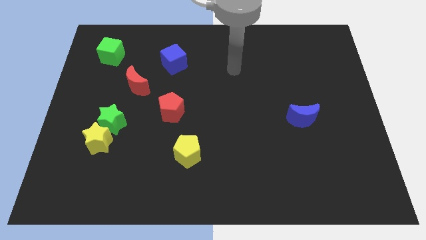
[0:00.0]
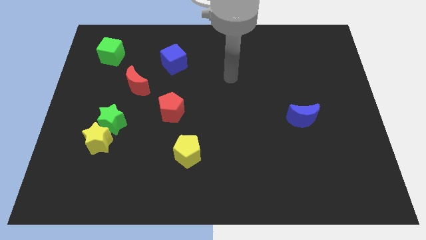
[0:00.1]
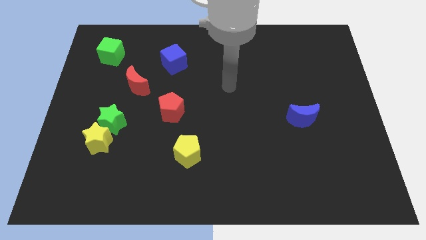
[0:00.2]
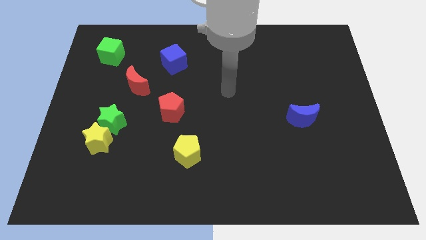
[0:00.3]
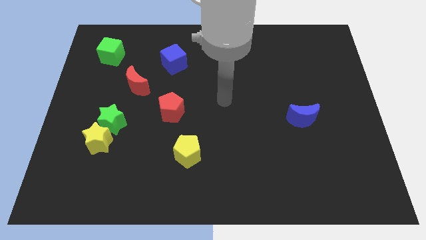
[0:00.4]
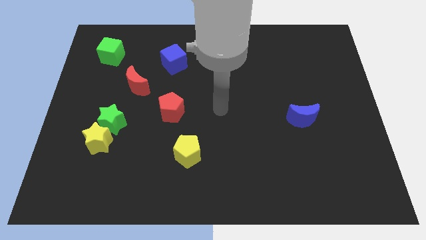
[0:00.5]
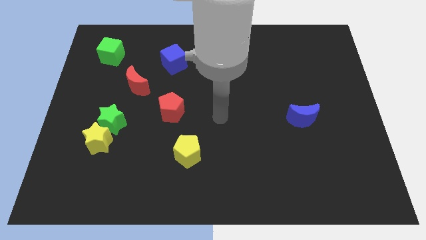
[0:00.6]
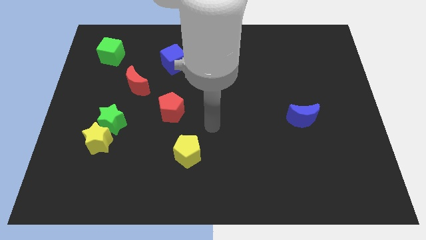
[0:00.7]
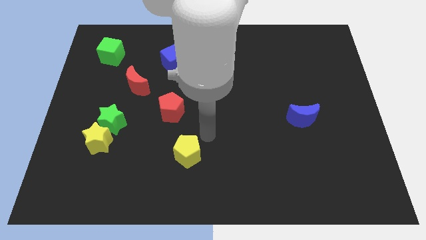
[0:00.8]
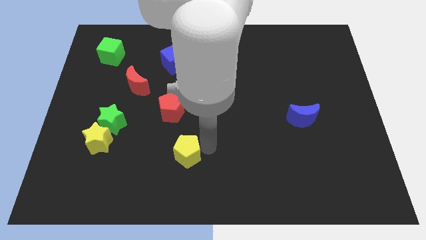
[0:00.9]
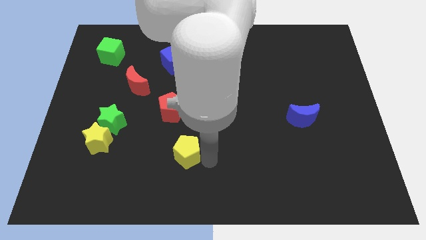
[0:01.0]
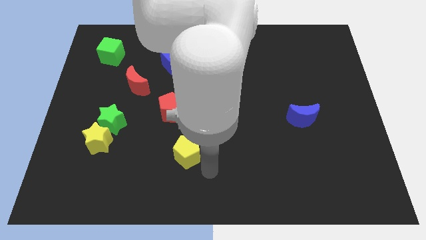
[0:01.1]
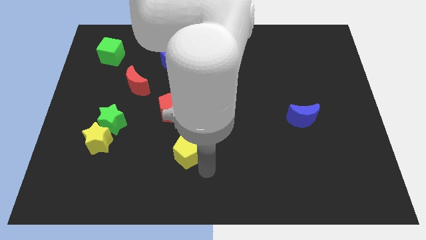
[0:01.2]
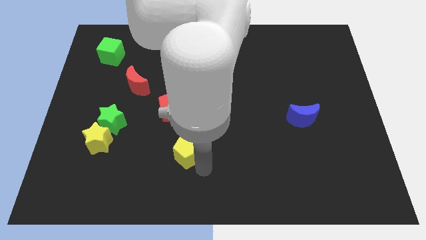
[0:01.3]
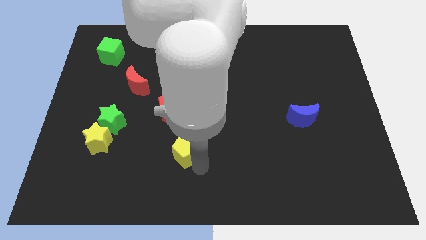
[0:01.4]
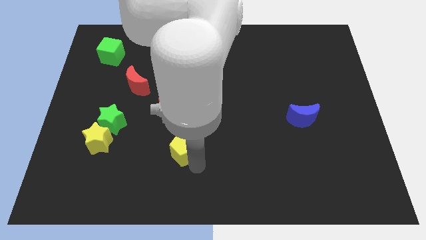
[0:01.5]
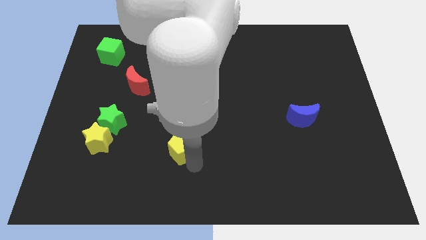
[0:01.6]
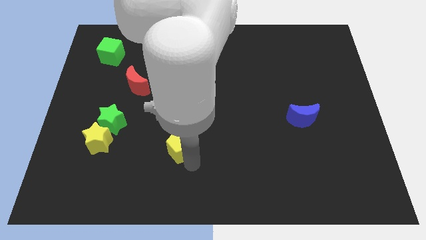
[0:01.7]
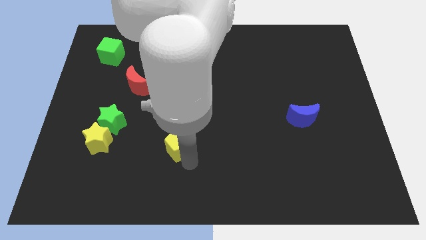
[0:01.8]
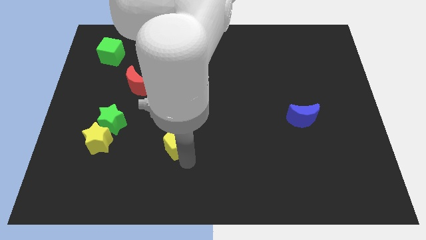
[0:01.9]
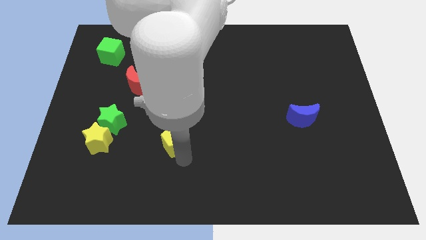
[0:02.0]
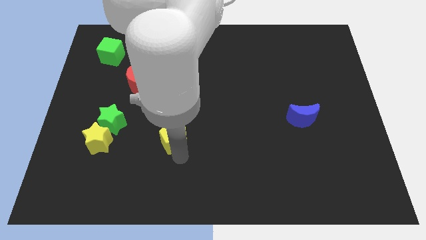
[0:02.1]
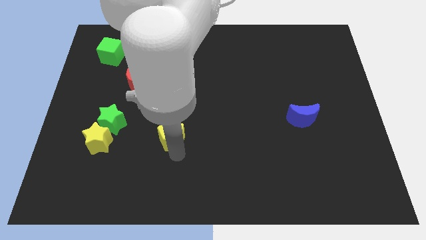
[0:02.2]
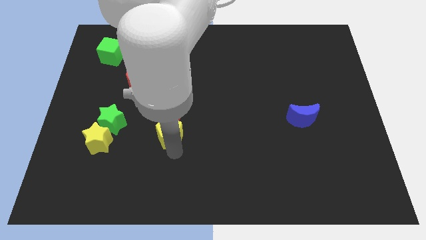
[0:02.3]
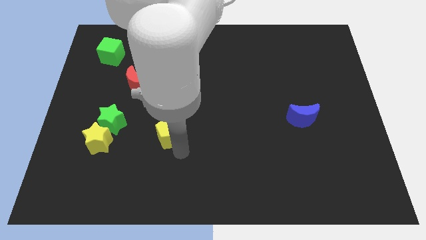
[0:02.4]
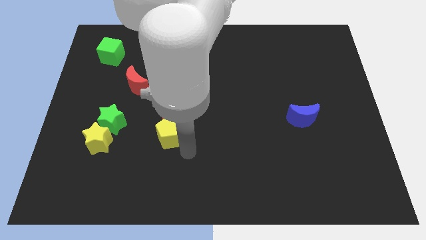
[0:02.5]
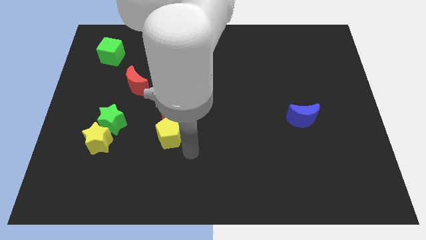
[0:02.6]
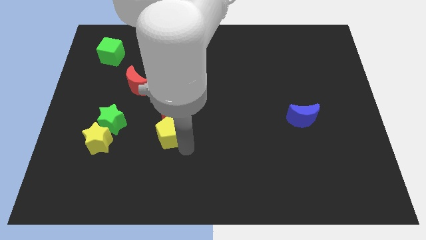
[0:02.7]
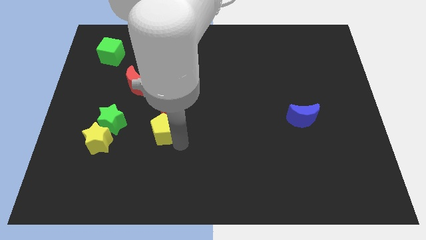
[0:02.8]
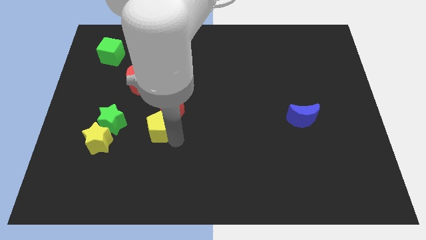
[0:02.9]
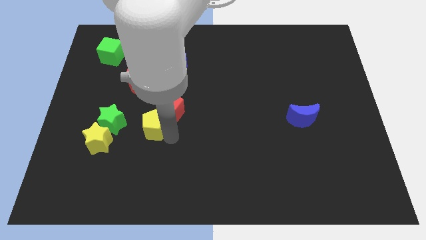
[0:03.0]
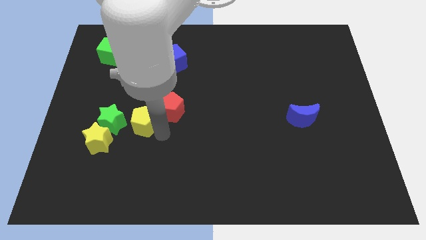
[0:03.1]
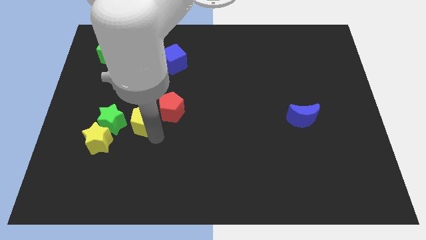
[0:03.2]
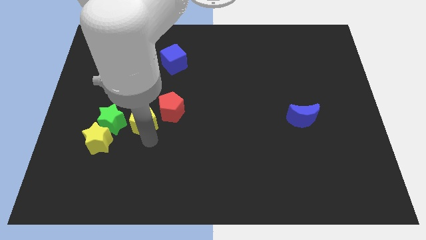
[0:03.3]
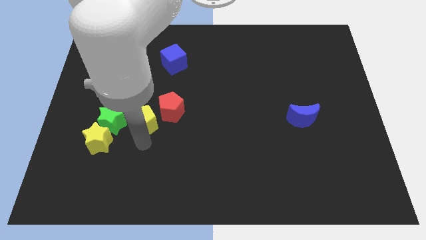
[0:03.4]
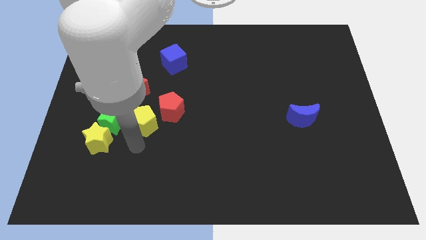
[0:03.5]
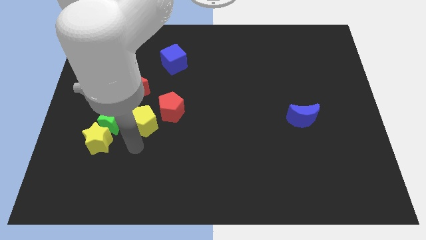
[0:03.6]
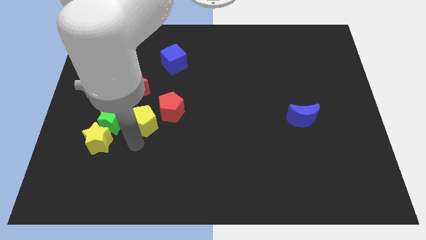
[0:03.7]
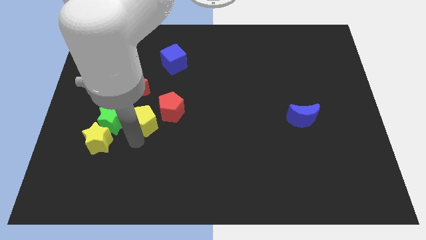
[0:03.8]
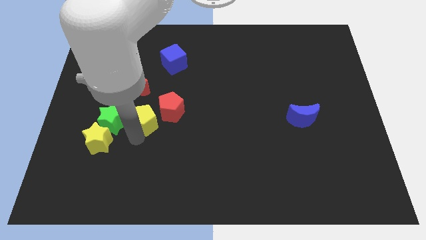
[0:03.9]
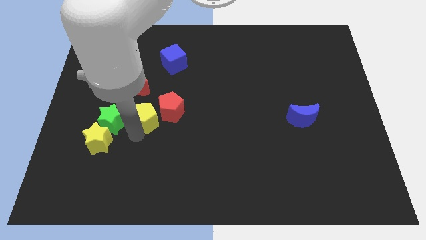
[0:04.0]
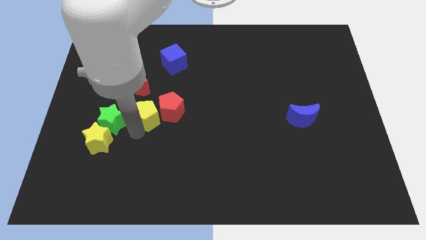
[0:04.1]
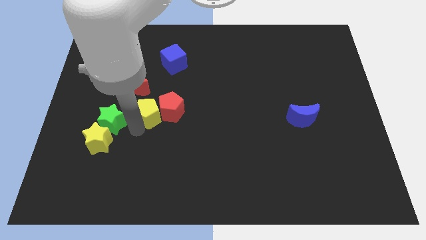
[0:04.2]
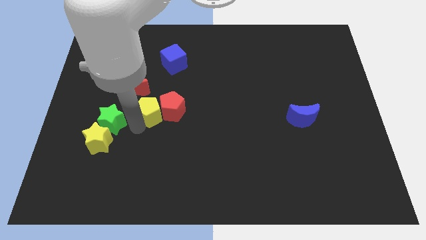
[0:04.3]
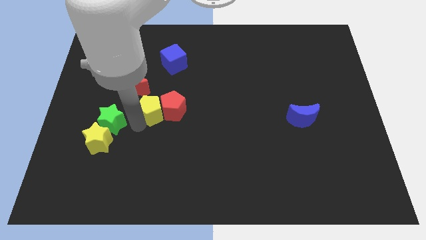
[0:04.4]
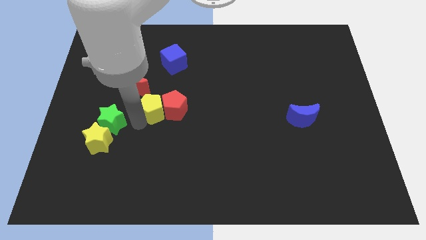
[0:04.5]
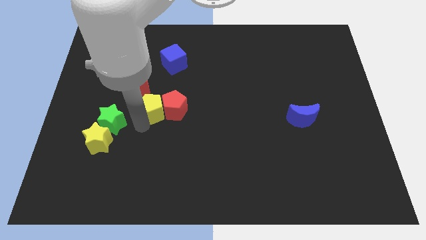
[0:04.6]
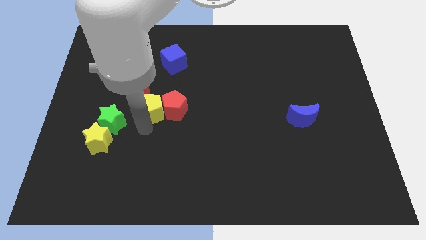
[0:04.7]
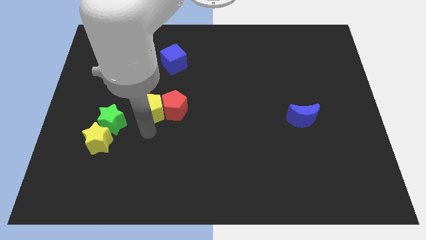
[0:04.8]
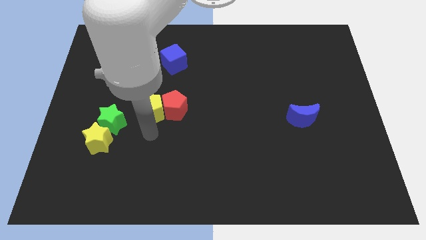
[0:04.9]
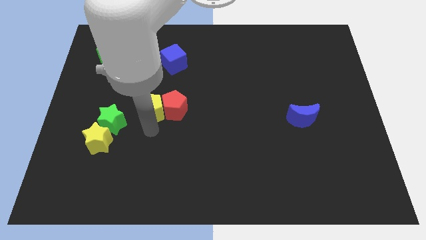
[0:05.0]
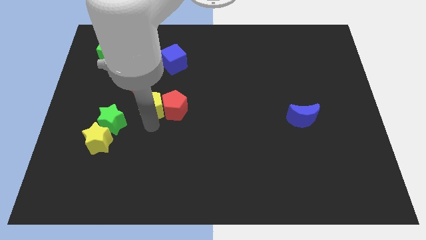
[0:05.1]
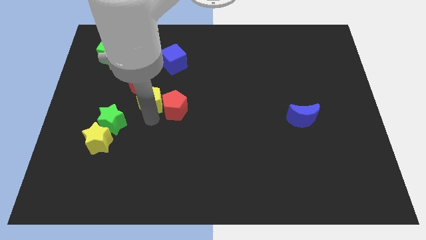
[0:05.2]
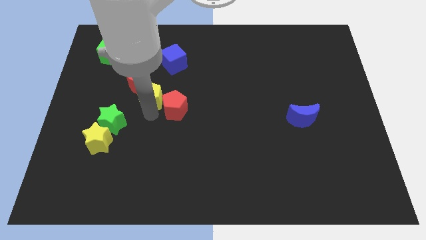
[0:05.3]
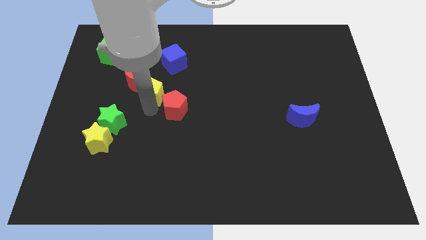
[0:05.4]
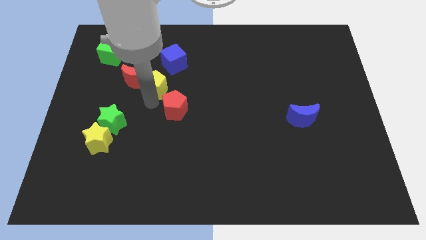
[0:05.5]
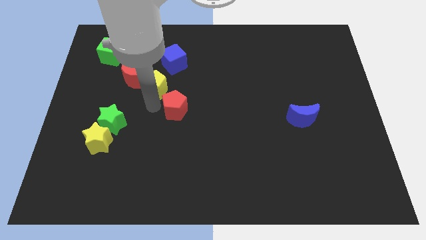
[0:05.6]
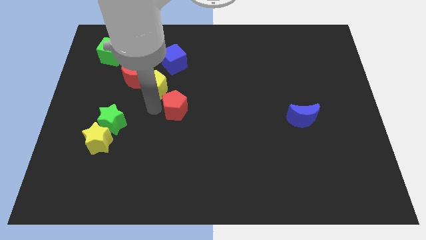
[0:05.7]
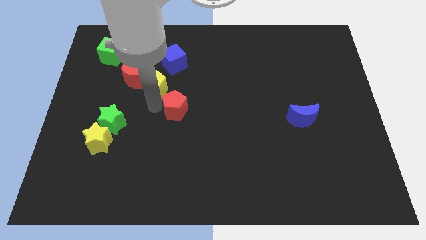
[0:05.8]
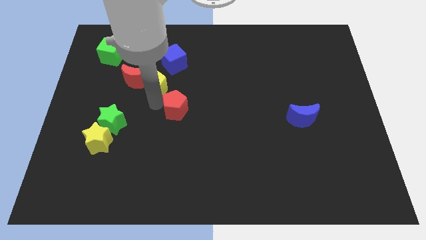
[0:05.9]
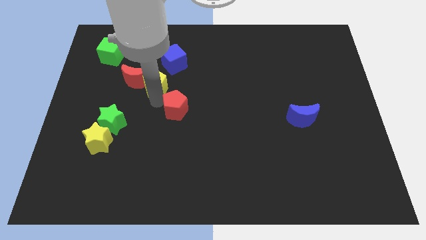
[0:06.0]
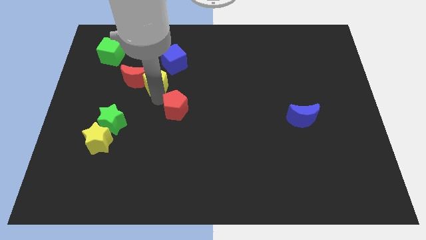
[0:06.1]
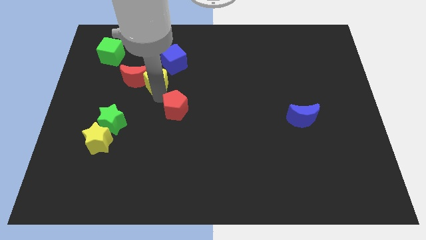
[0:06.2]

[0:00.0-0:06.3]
move the yellow pentagon to the top right of the red moon

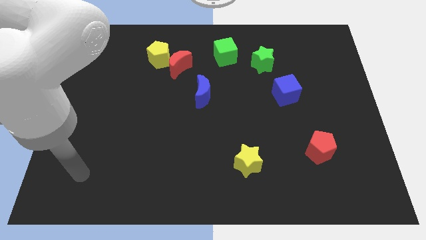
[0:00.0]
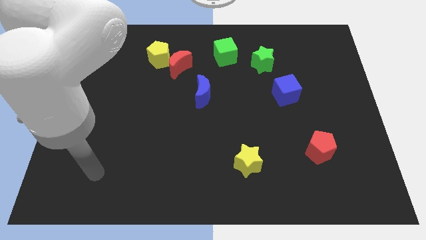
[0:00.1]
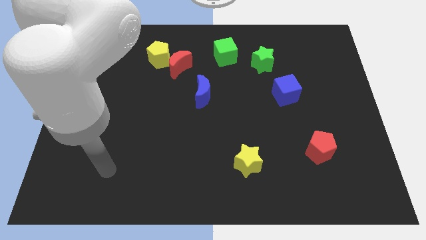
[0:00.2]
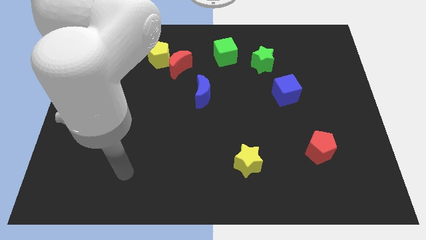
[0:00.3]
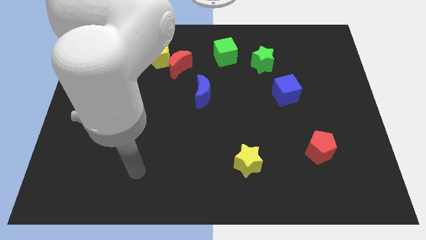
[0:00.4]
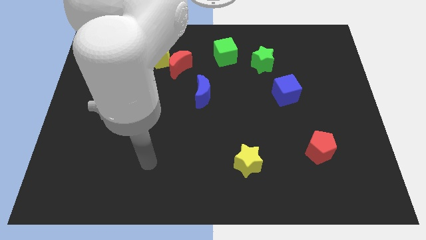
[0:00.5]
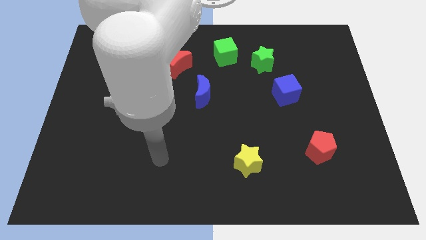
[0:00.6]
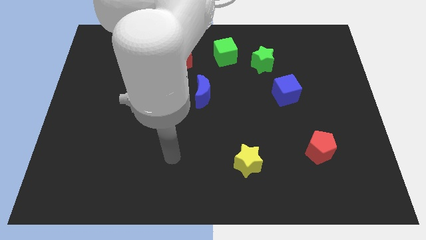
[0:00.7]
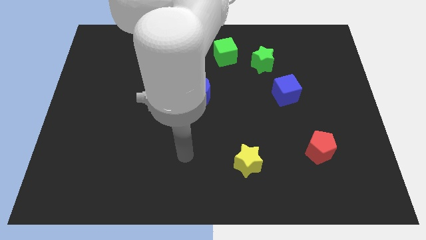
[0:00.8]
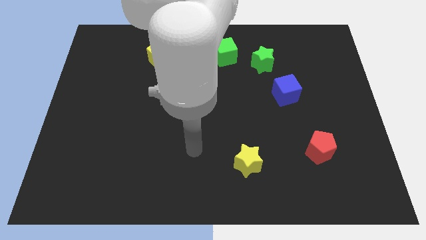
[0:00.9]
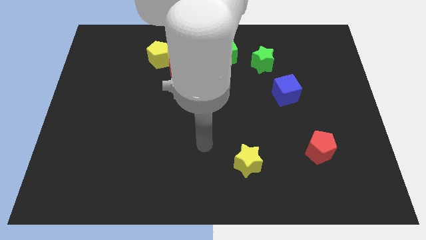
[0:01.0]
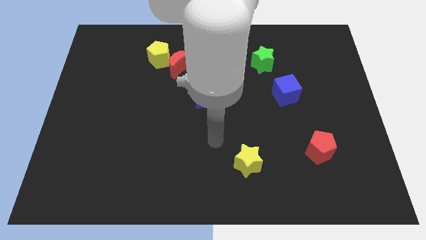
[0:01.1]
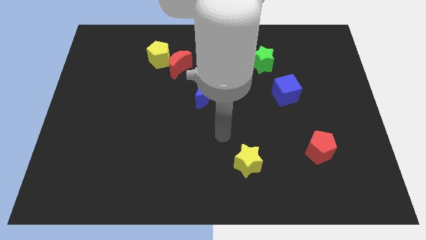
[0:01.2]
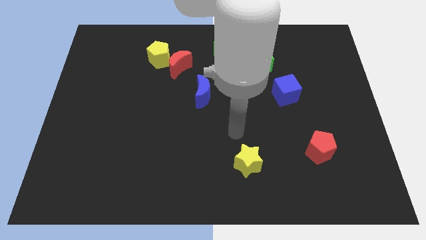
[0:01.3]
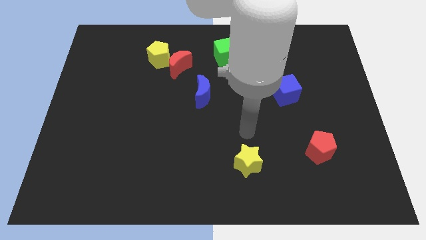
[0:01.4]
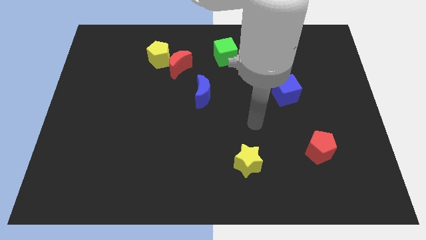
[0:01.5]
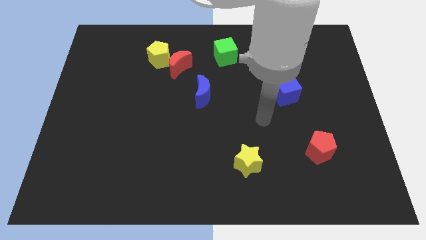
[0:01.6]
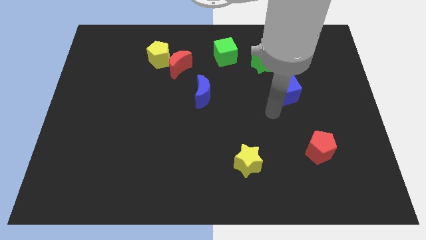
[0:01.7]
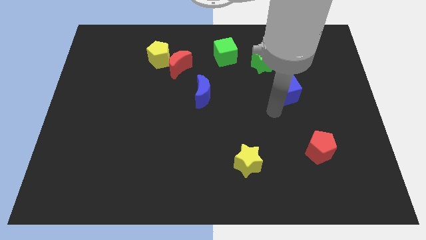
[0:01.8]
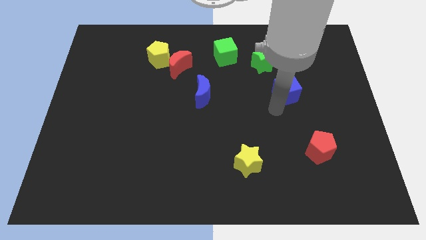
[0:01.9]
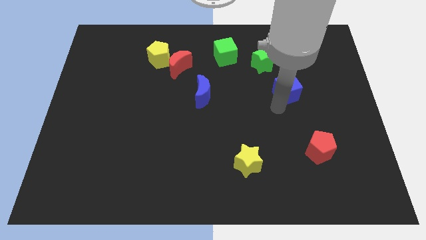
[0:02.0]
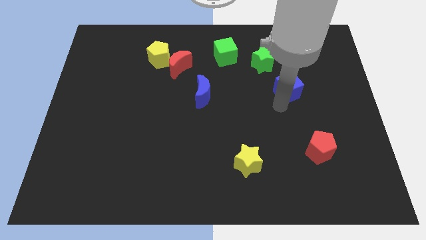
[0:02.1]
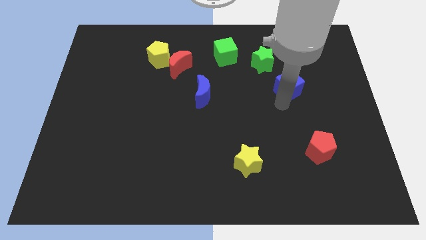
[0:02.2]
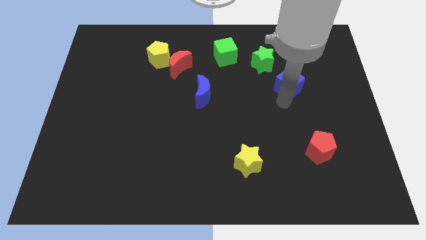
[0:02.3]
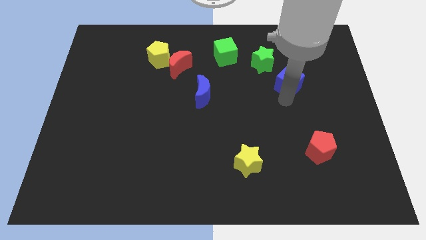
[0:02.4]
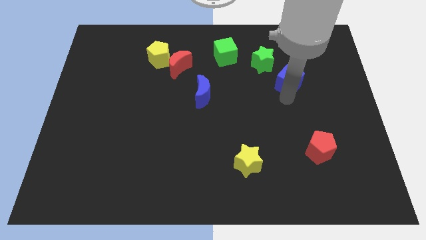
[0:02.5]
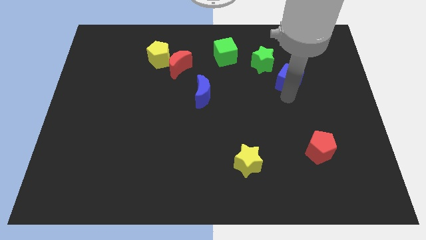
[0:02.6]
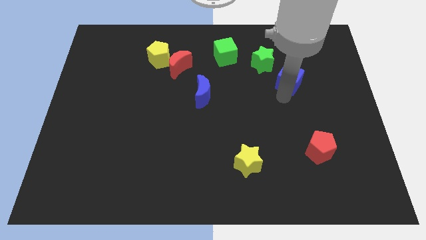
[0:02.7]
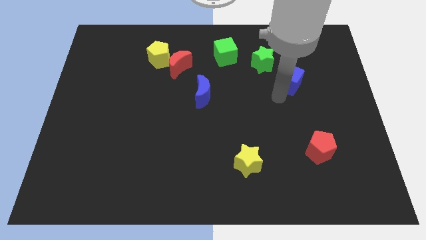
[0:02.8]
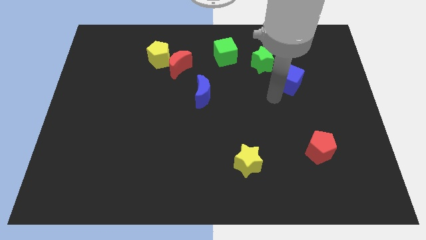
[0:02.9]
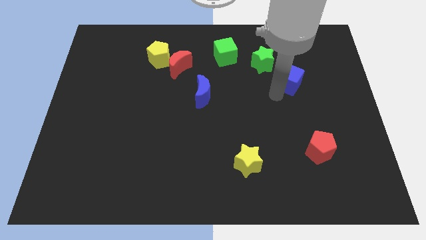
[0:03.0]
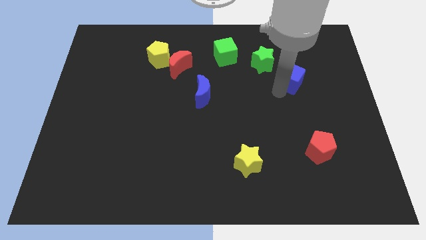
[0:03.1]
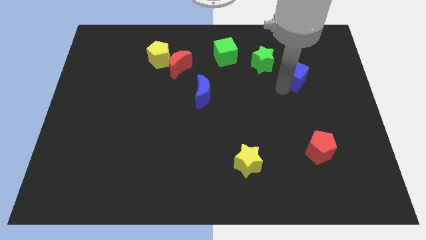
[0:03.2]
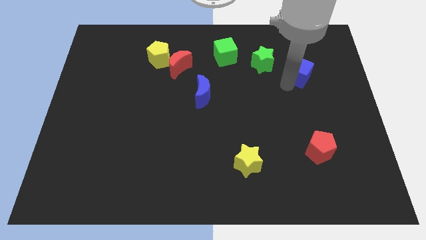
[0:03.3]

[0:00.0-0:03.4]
slide the blue cube to the right of the green star
